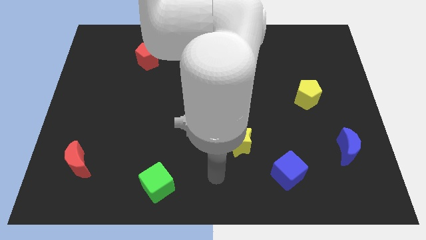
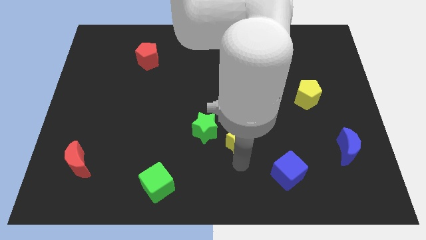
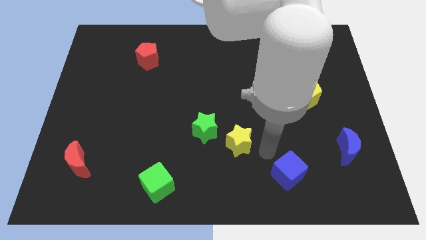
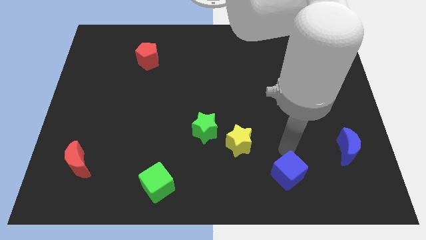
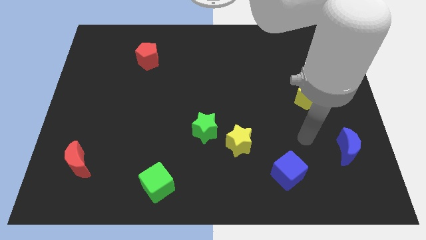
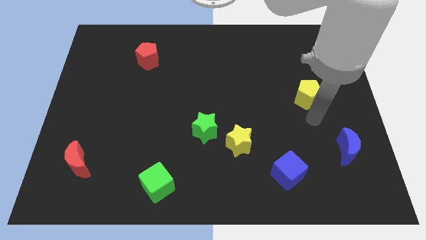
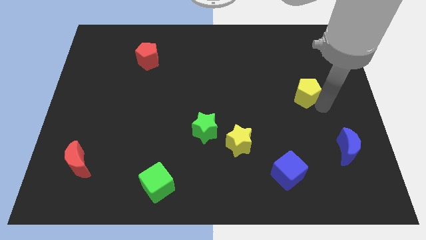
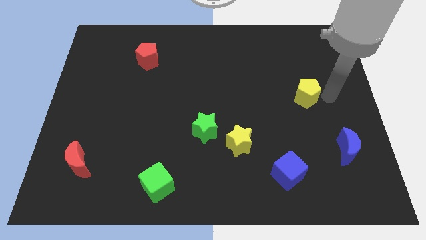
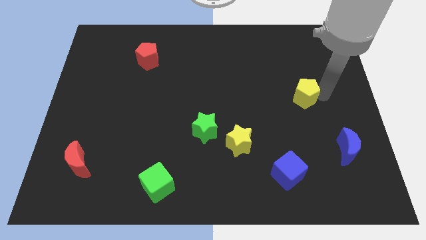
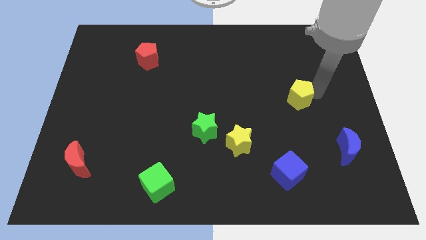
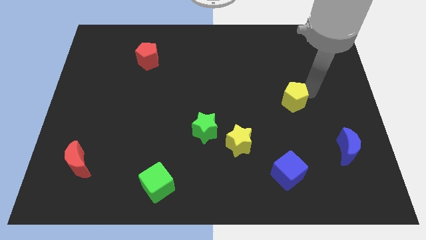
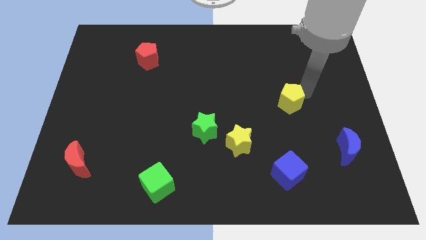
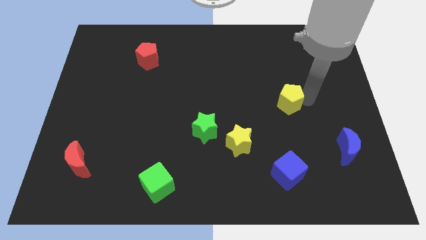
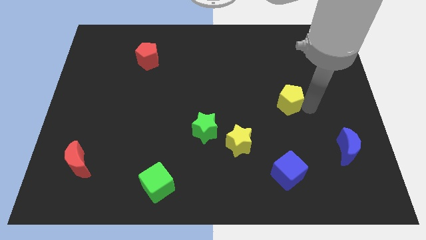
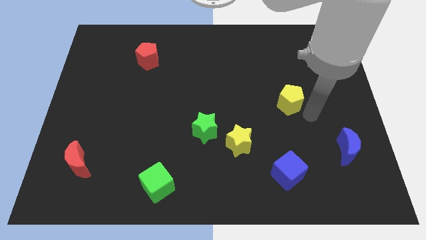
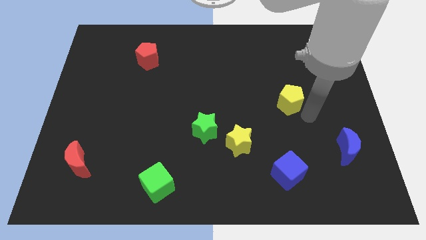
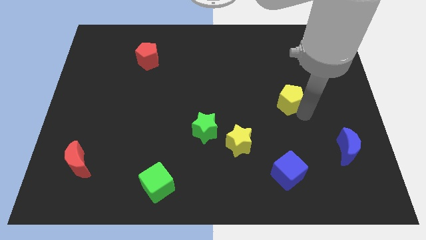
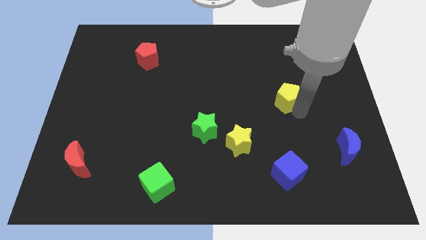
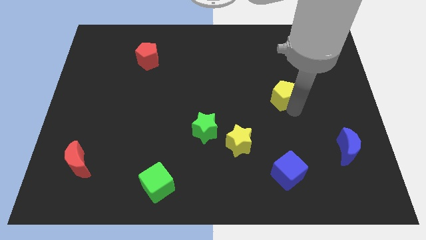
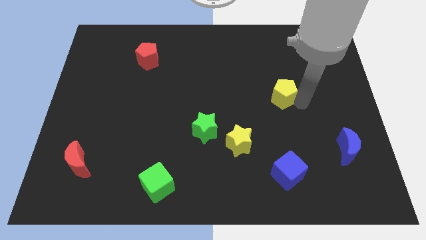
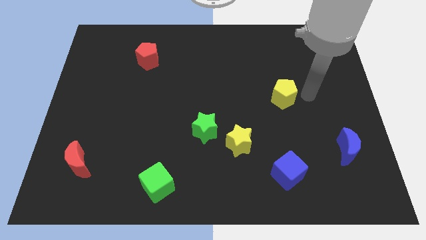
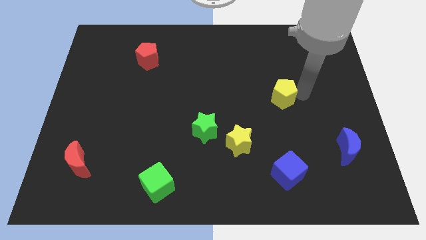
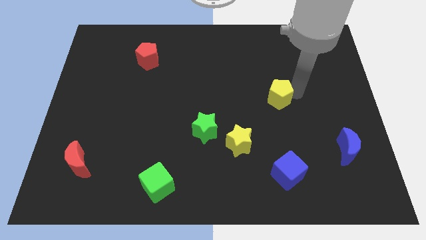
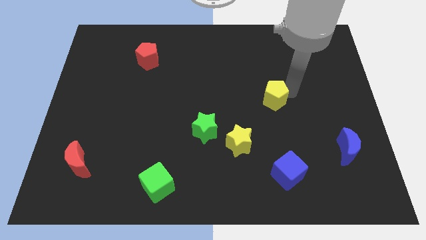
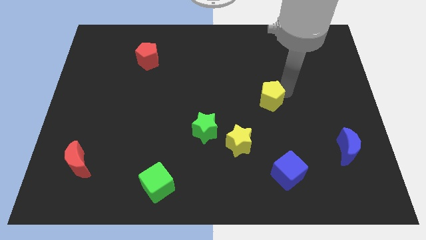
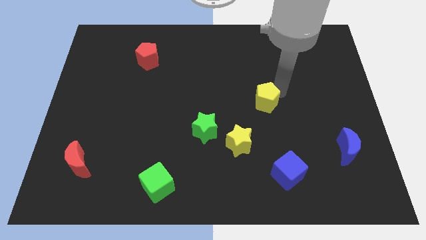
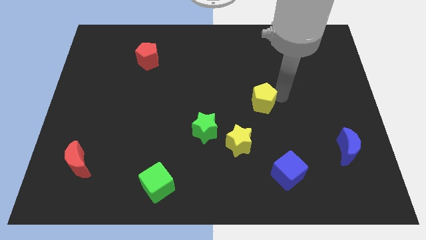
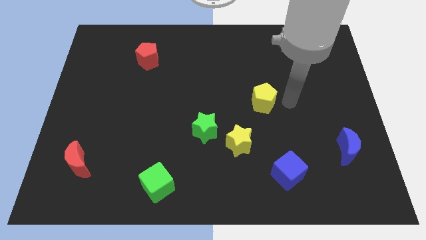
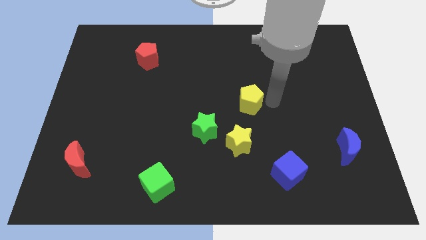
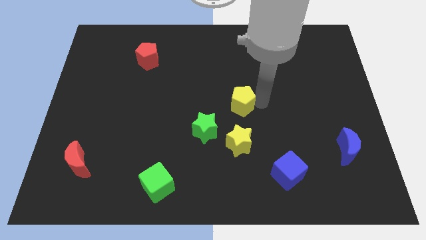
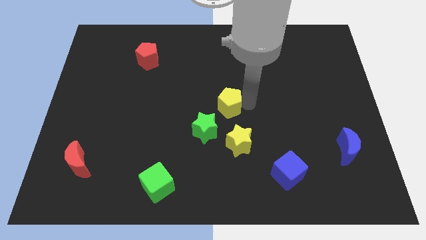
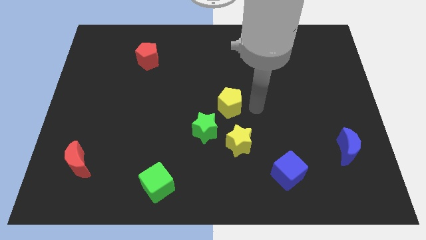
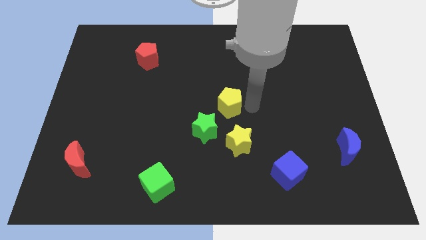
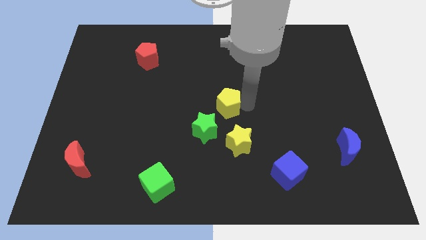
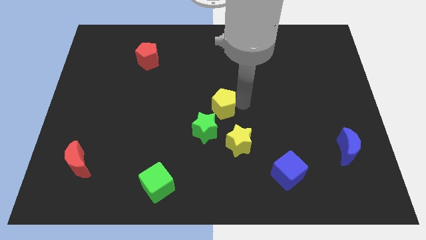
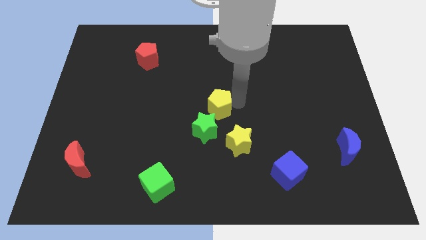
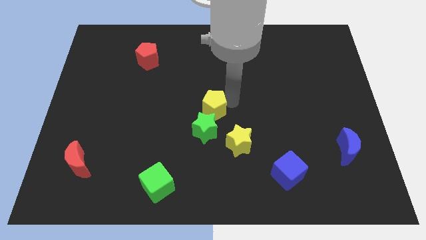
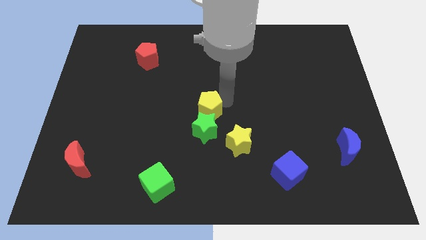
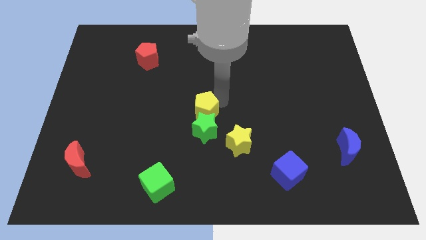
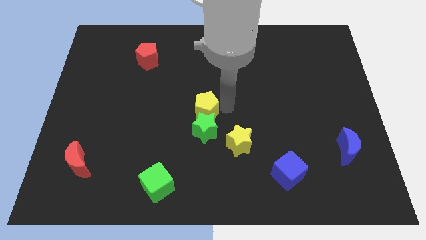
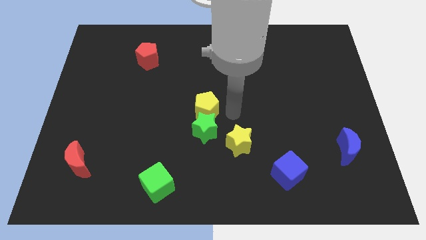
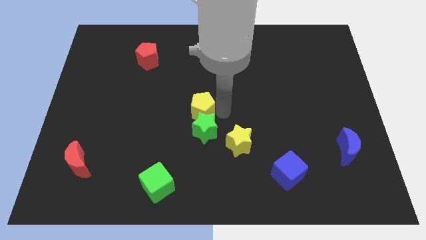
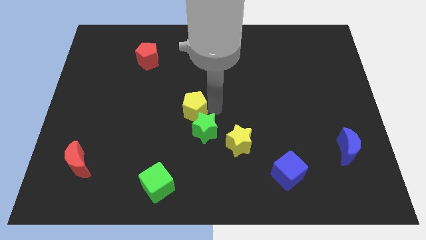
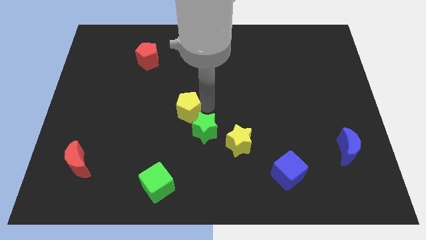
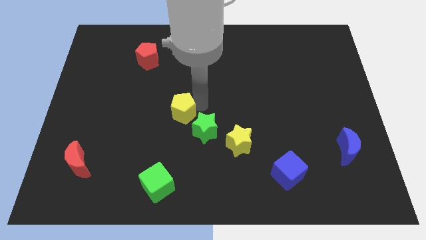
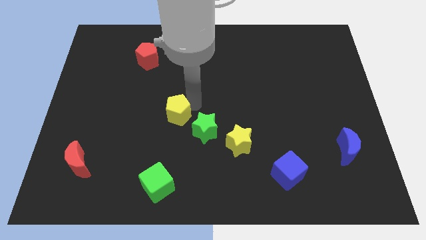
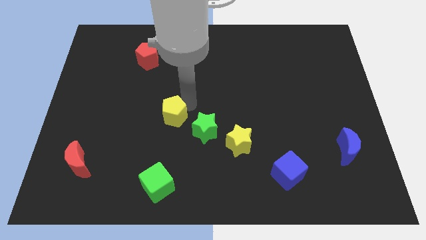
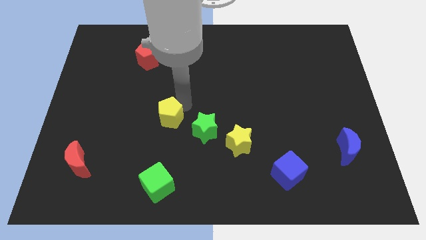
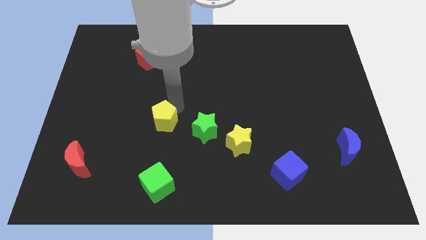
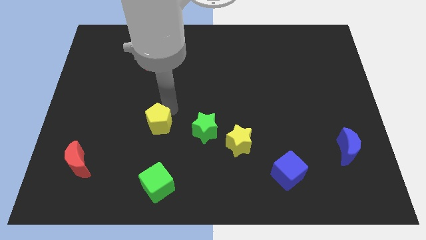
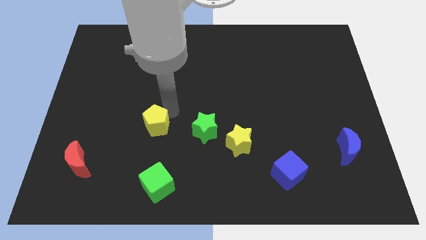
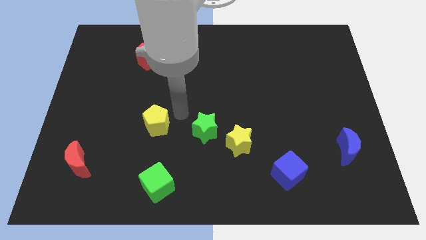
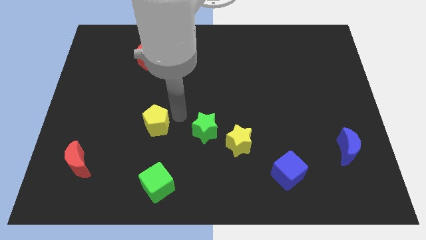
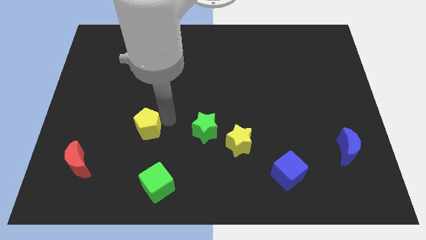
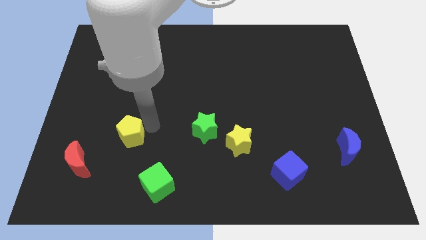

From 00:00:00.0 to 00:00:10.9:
push the yellow pentagon to the top right side of the red moon

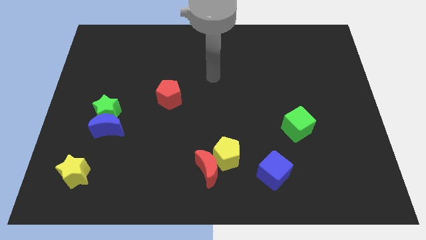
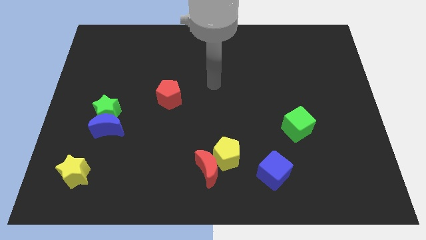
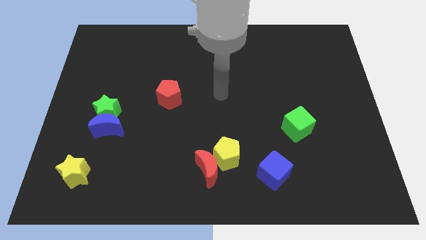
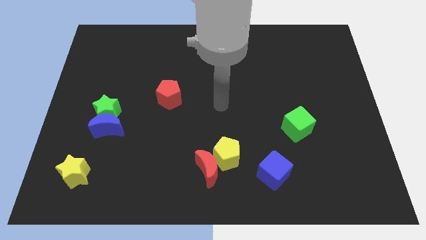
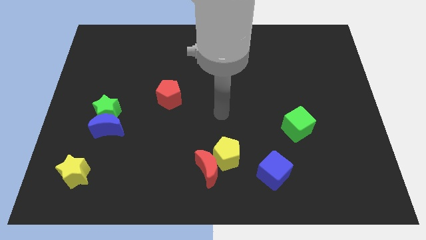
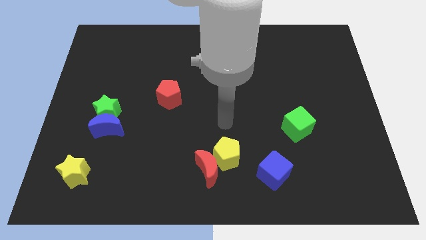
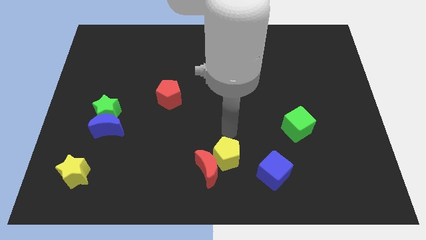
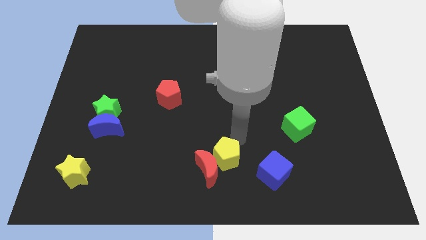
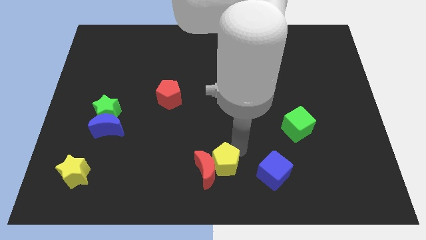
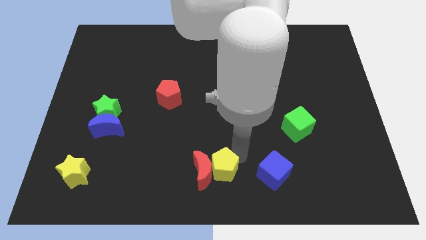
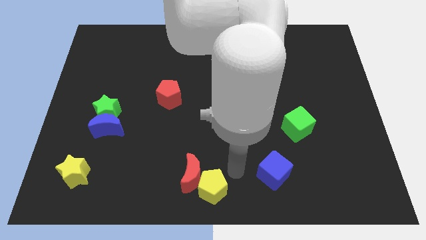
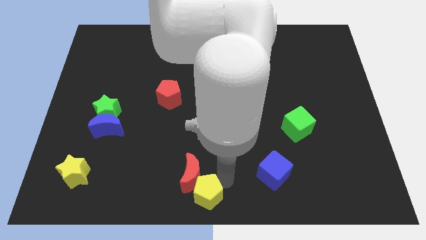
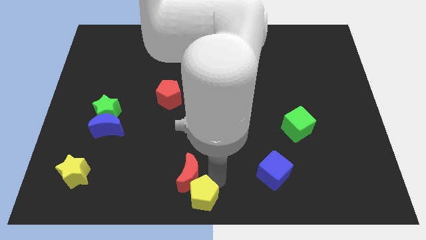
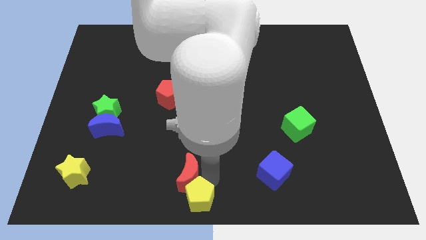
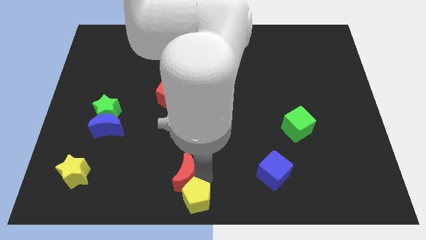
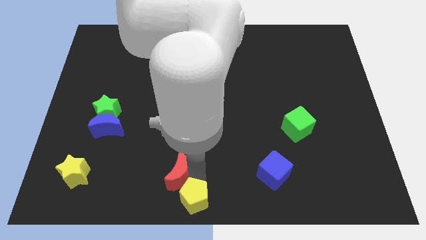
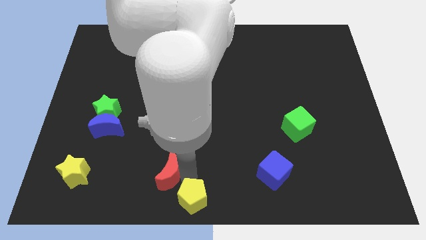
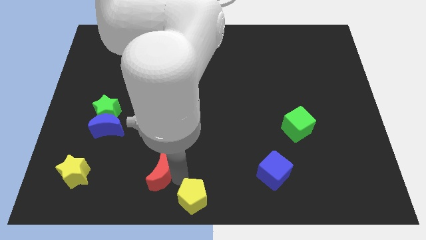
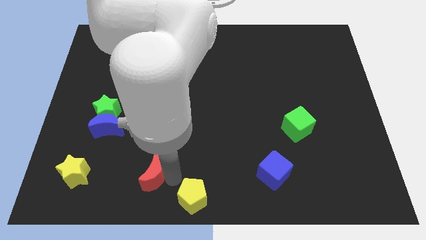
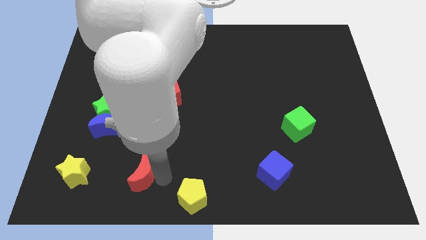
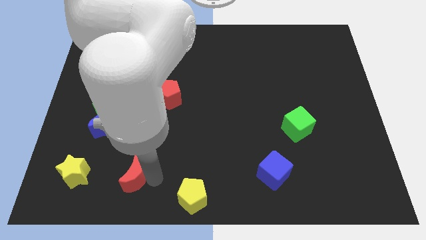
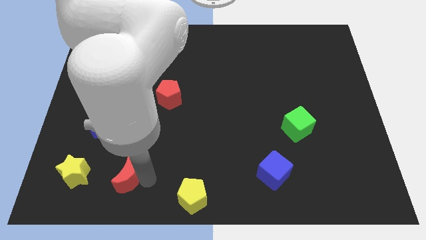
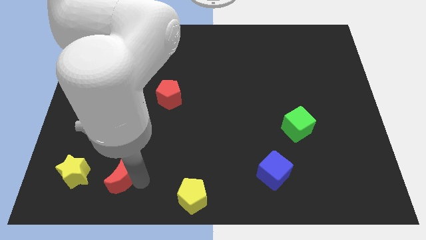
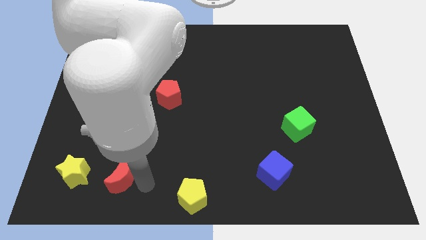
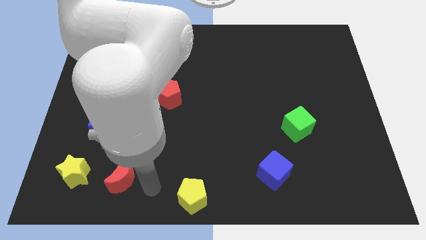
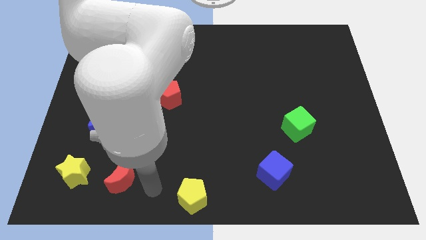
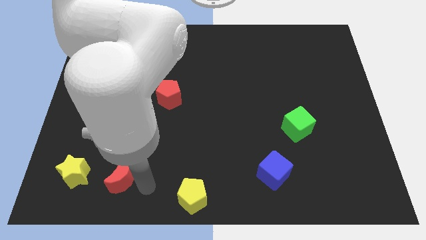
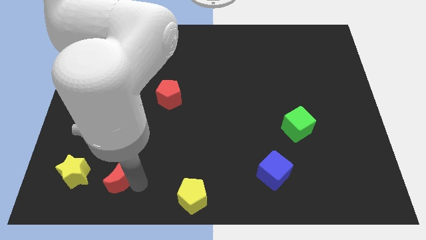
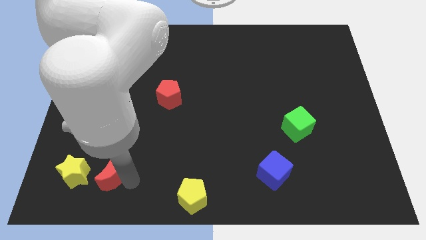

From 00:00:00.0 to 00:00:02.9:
push the red moon to the bottom of the blue moon
